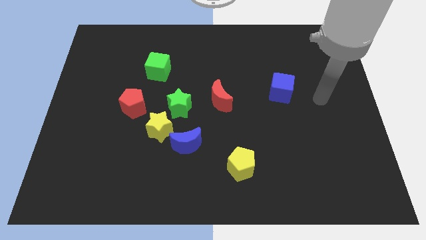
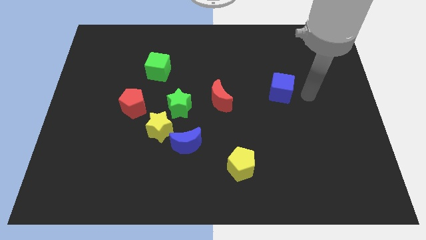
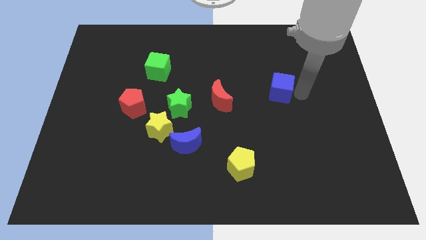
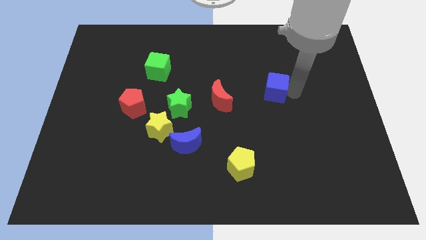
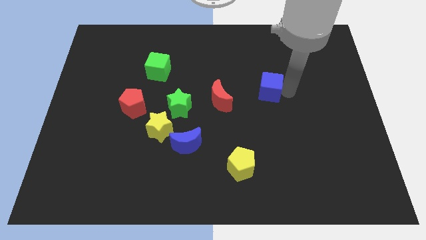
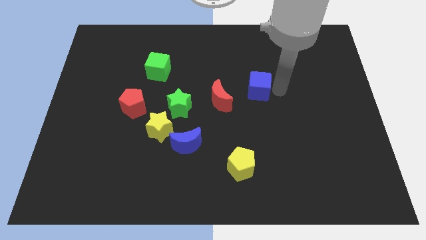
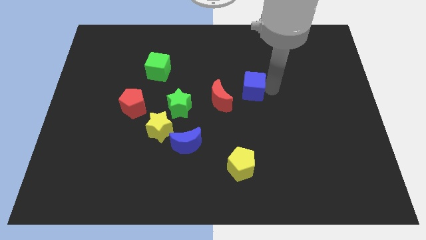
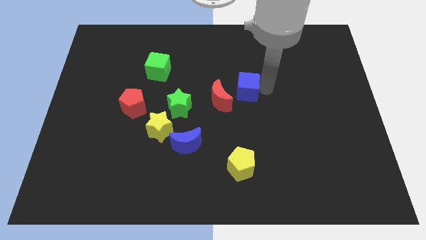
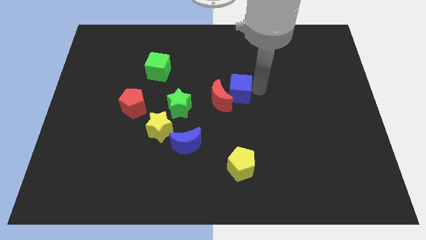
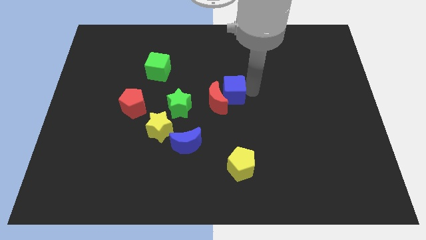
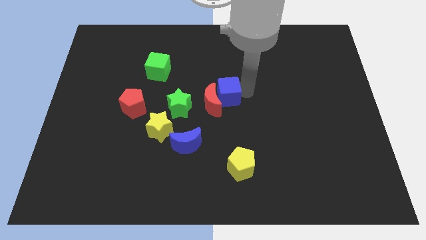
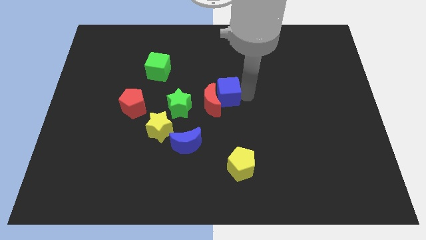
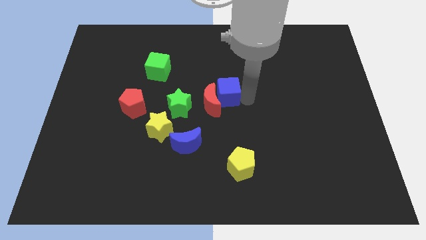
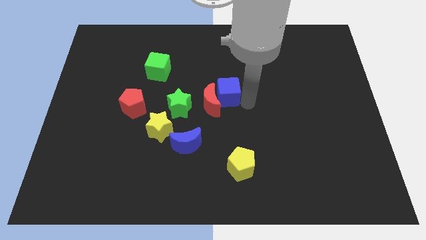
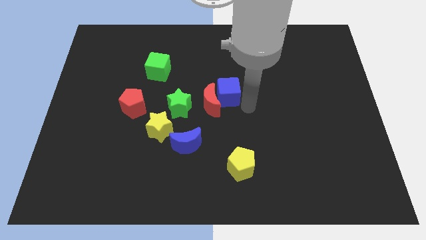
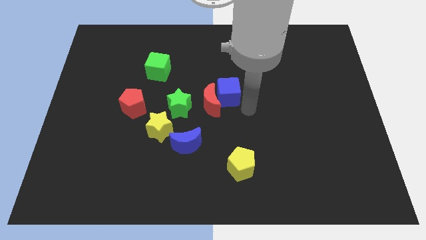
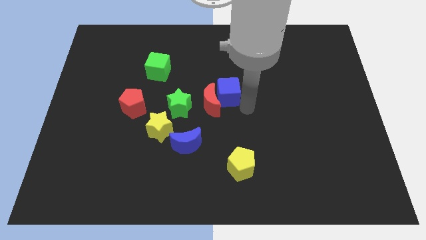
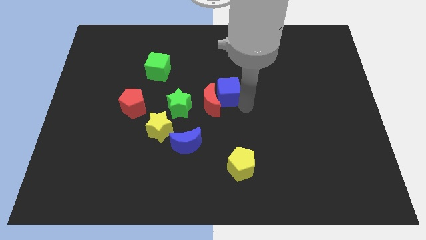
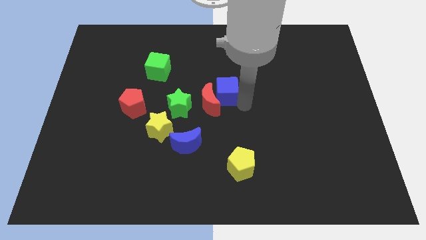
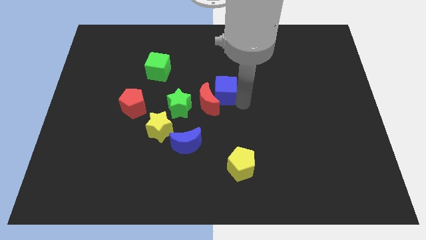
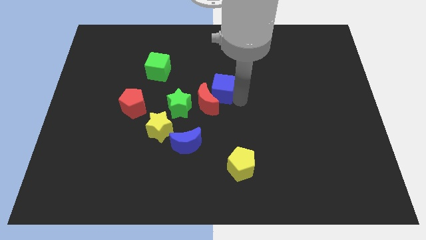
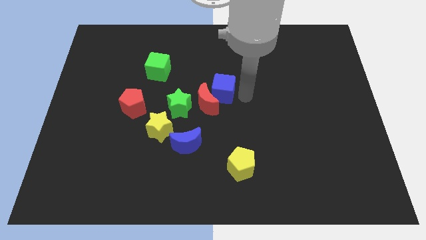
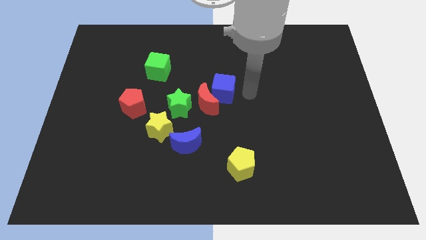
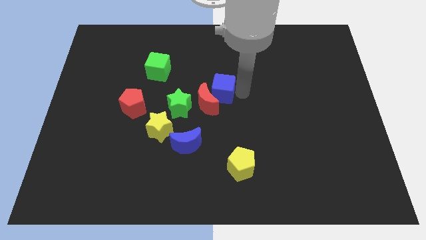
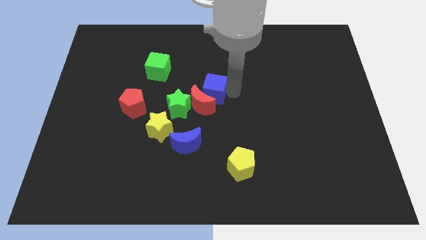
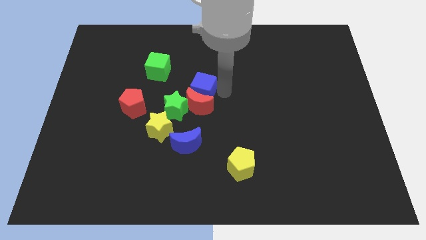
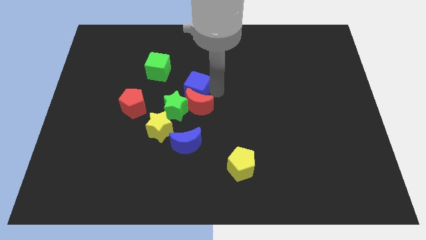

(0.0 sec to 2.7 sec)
slide the blue cube to the left

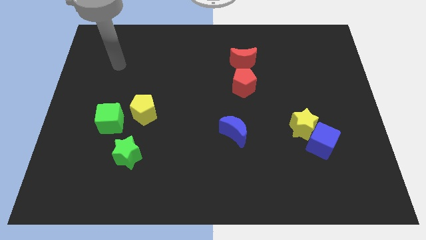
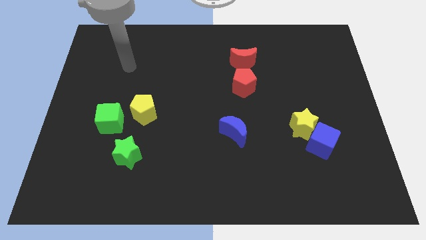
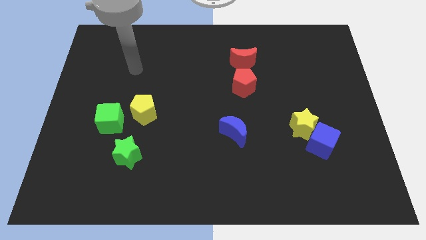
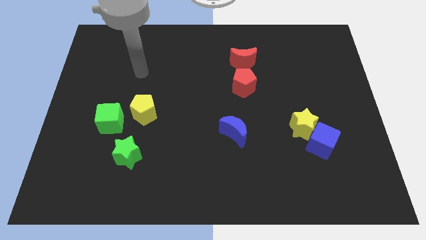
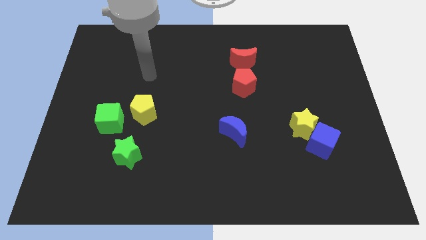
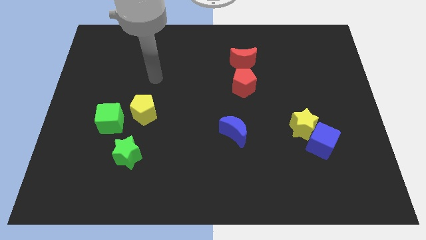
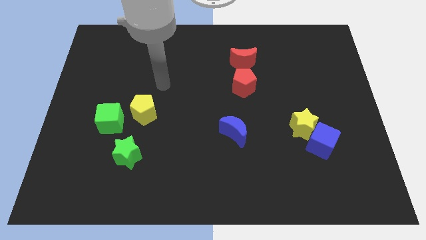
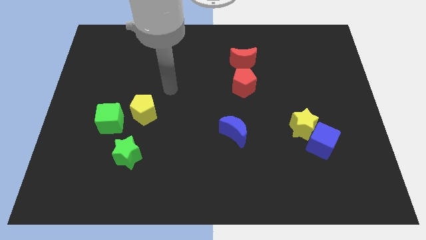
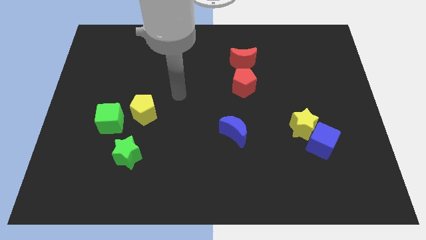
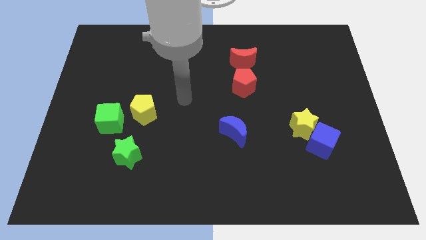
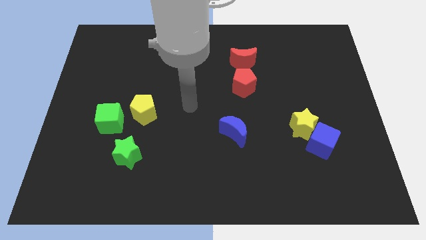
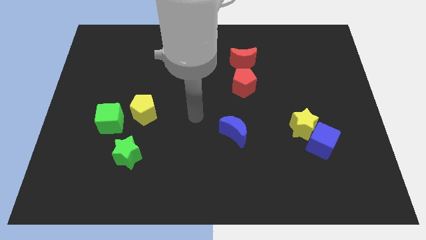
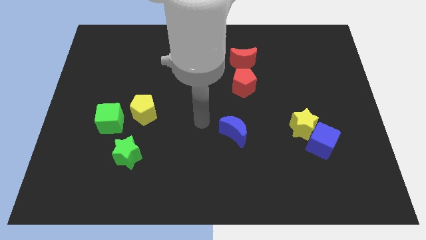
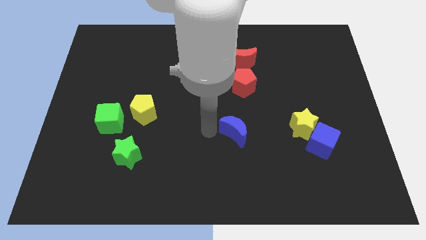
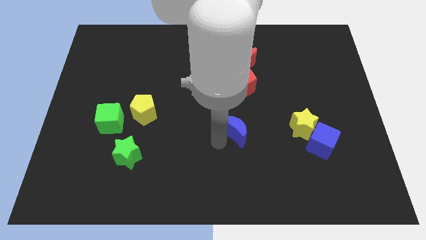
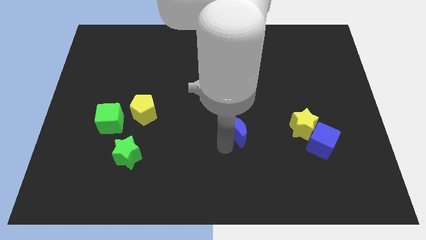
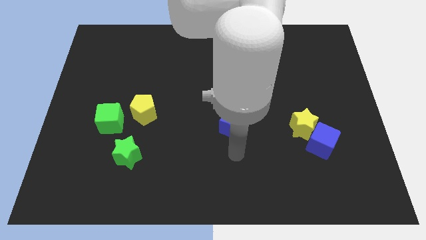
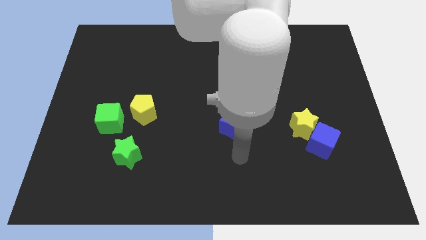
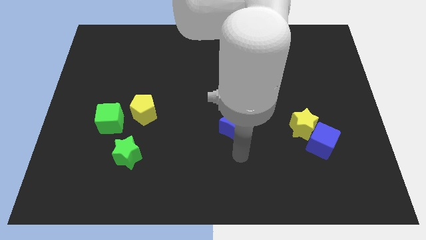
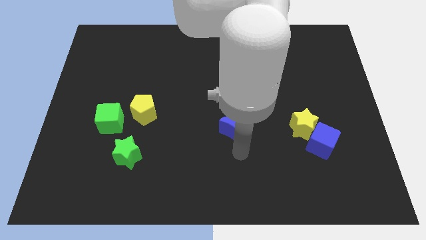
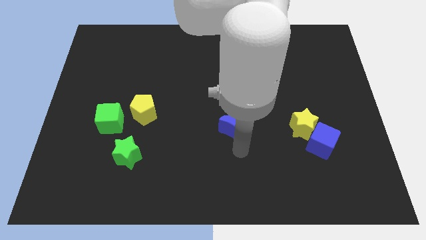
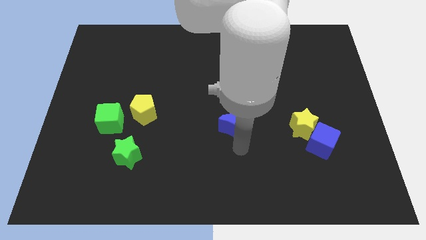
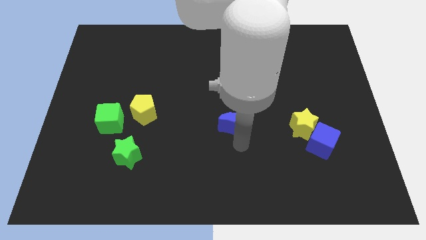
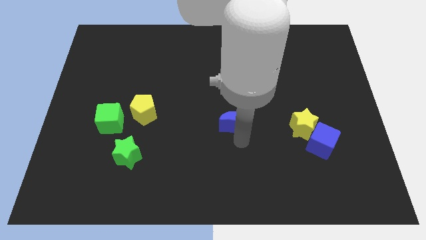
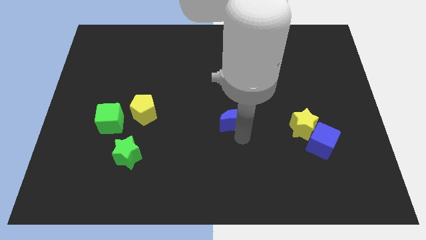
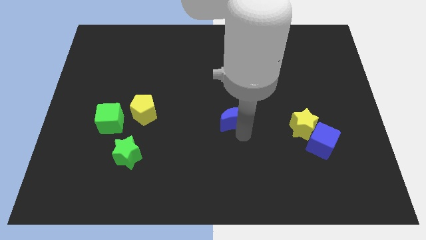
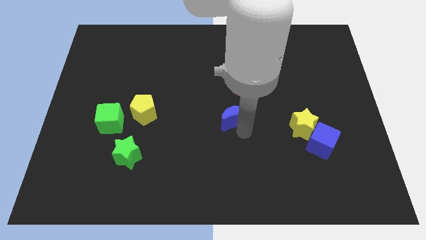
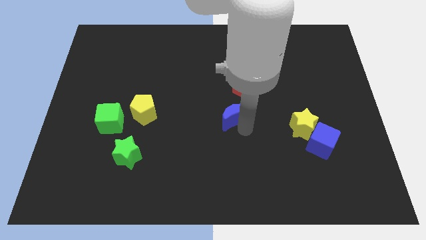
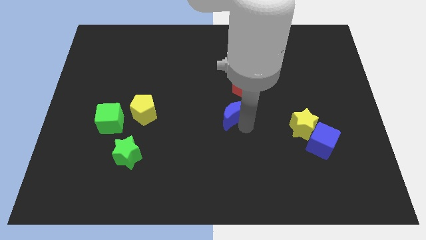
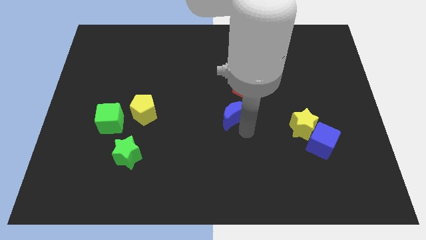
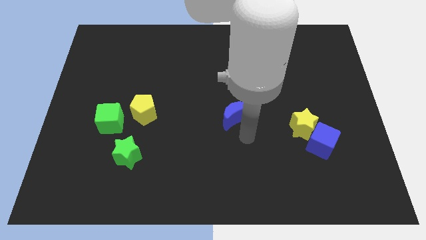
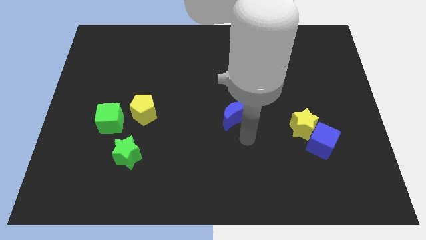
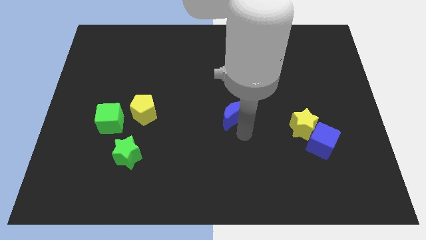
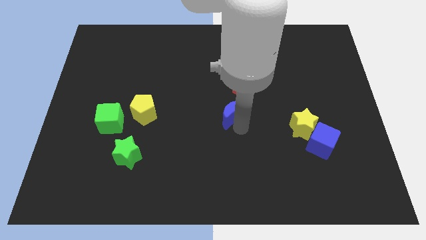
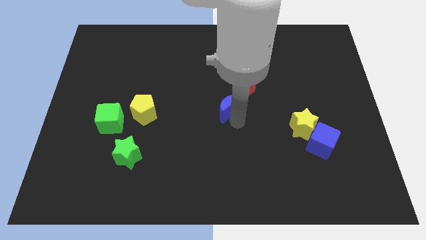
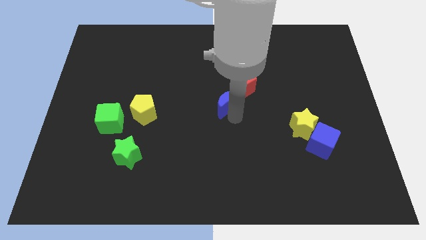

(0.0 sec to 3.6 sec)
slide the blue moon up a little

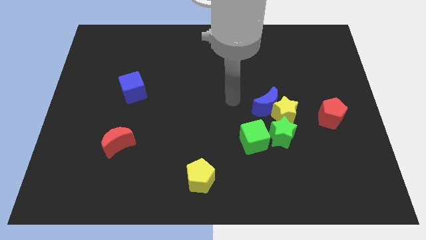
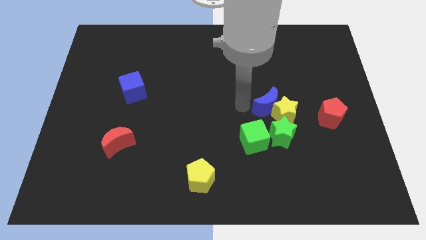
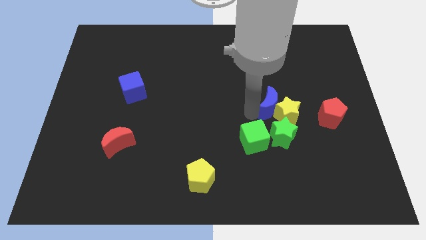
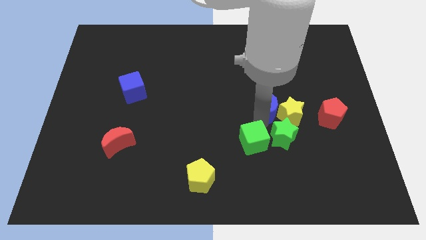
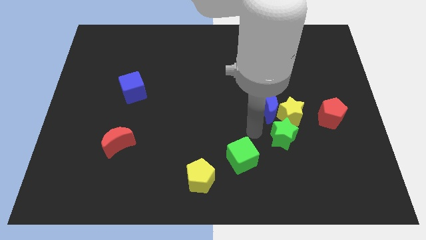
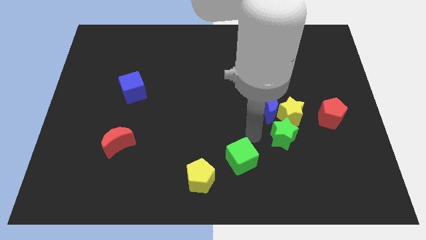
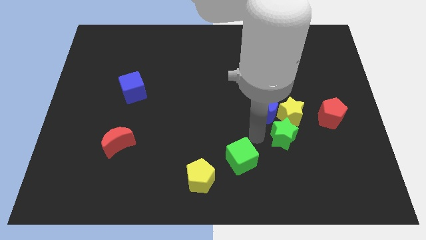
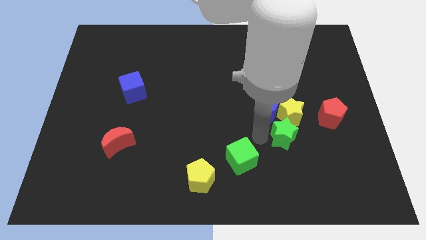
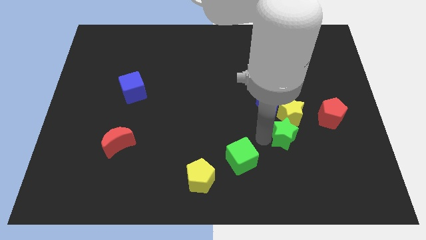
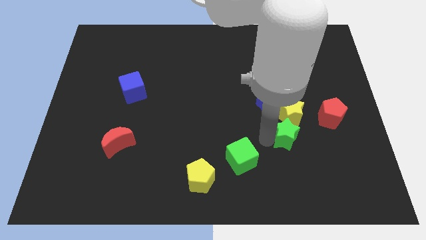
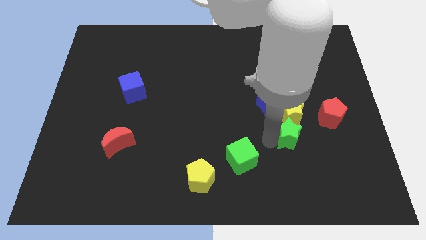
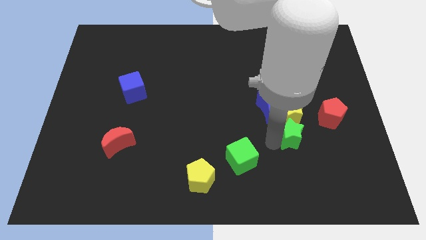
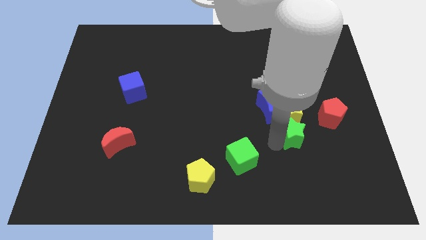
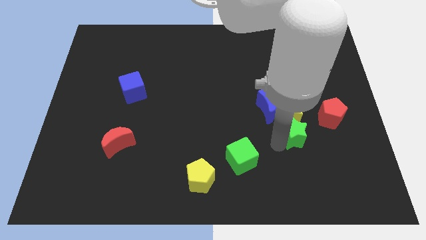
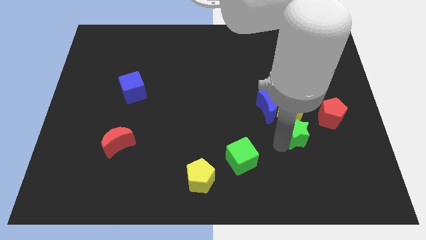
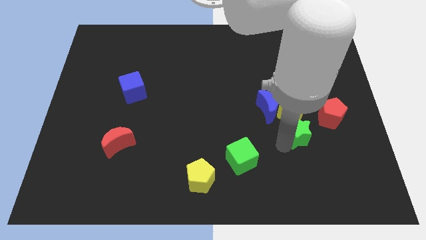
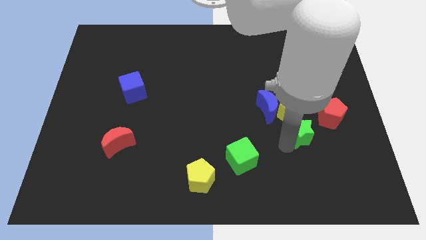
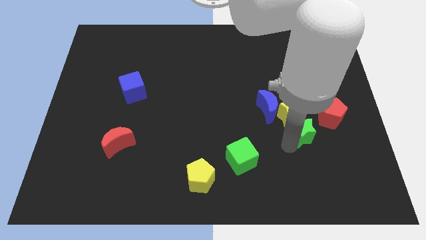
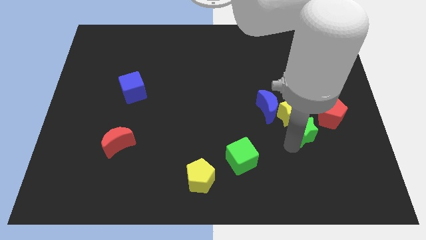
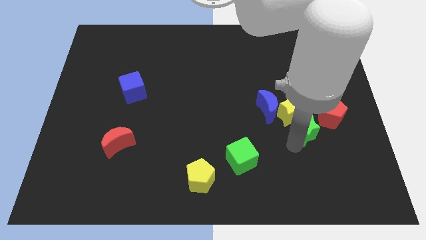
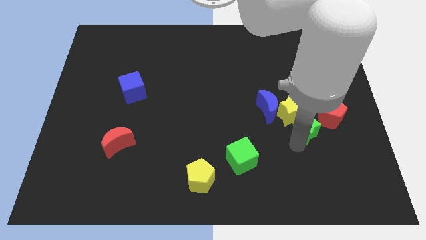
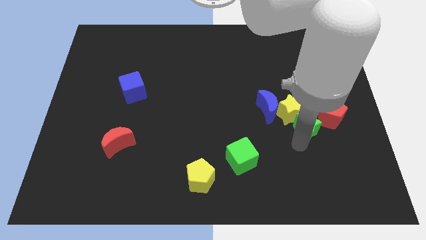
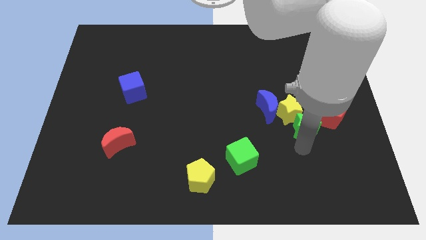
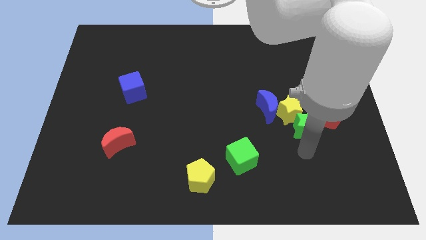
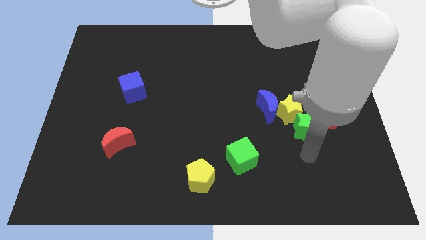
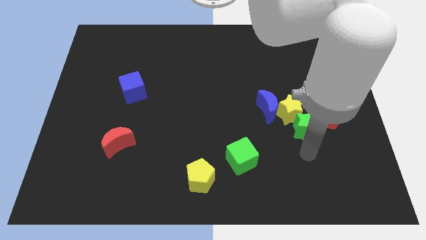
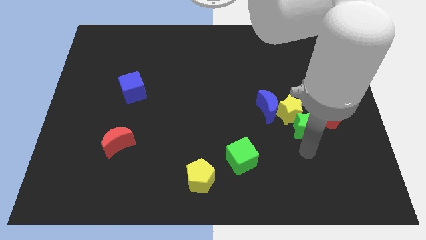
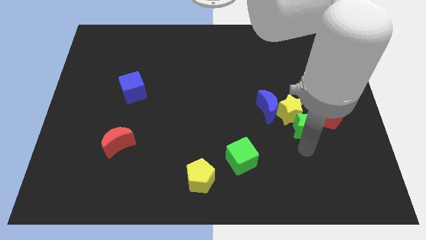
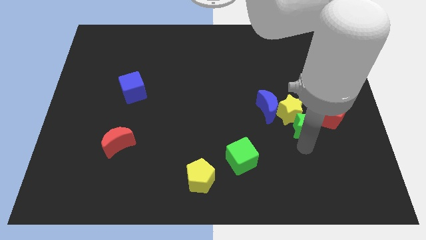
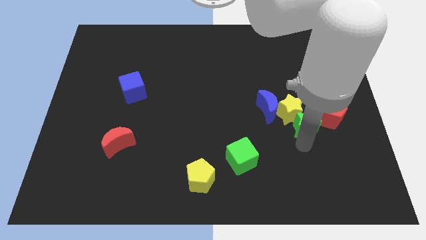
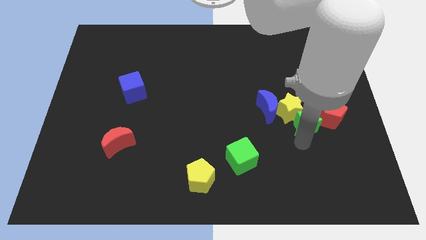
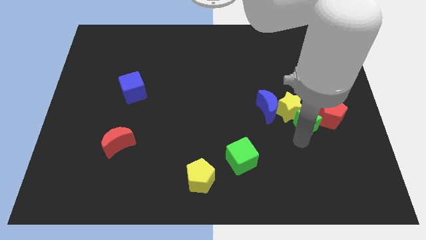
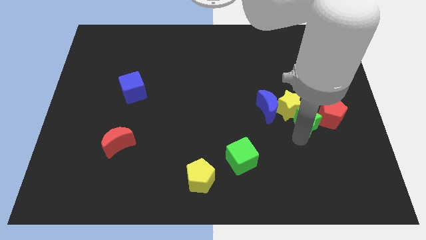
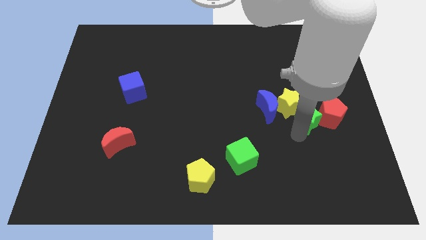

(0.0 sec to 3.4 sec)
slightly move the green star upwards and right
